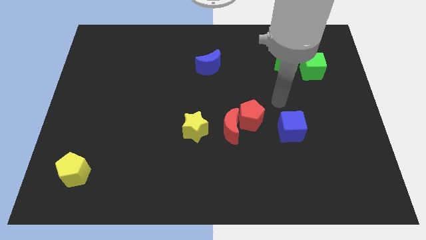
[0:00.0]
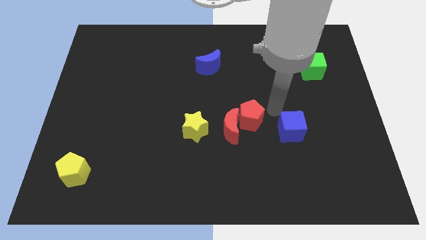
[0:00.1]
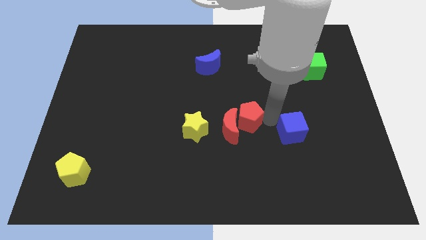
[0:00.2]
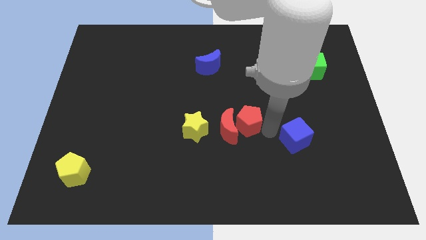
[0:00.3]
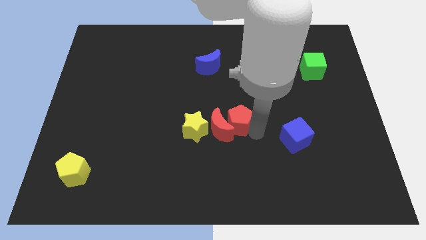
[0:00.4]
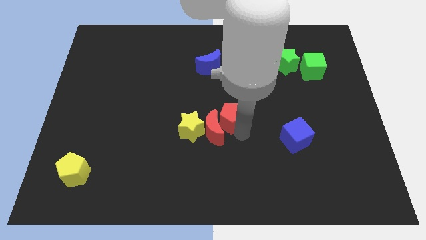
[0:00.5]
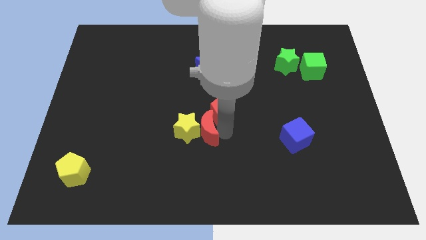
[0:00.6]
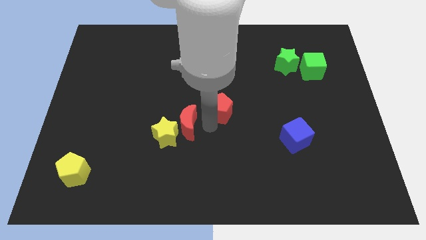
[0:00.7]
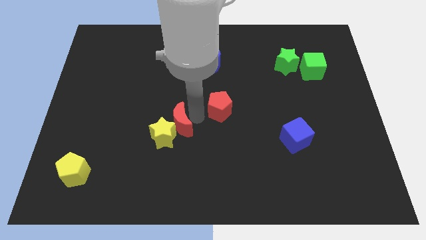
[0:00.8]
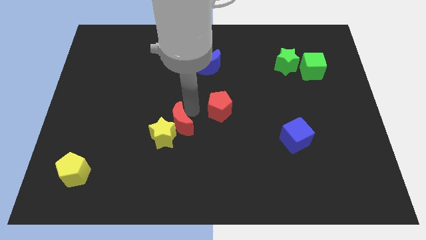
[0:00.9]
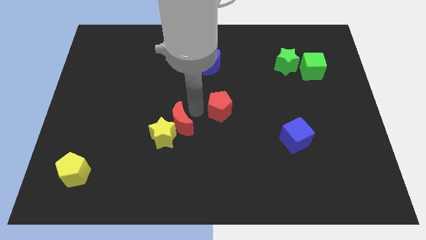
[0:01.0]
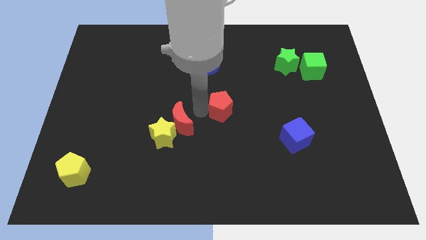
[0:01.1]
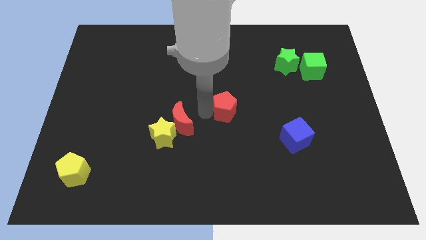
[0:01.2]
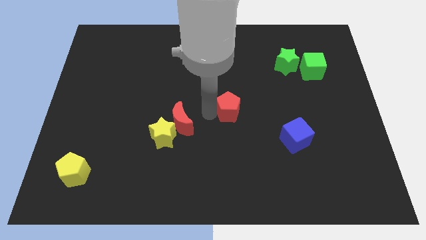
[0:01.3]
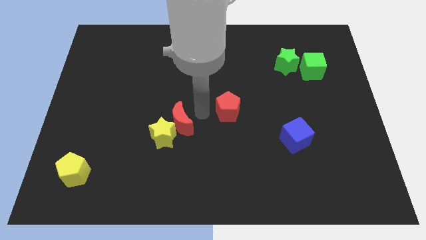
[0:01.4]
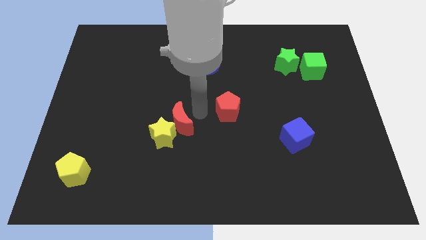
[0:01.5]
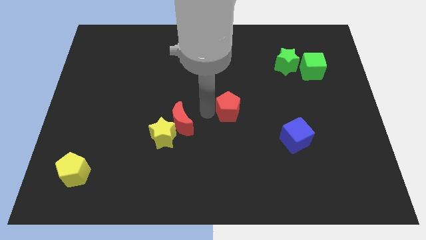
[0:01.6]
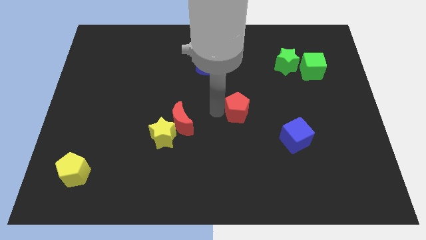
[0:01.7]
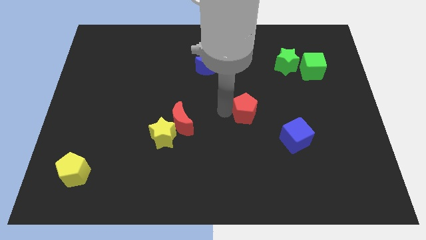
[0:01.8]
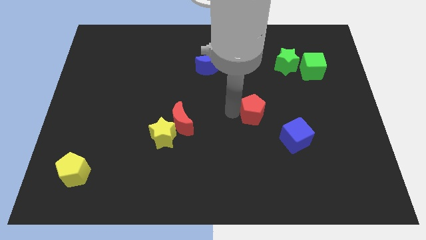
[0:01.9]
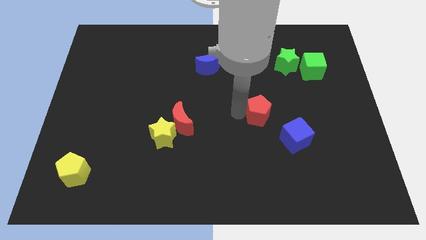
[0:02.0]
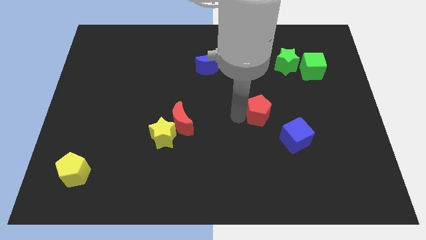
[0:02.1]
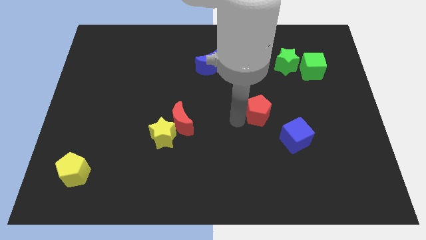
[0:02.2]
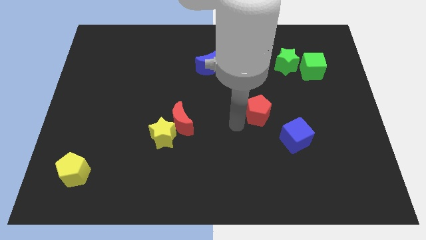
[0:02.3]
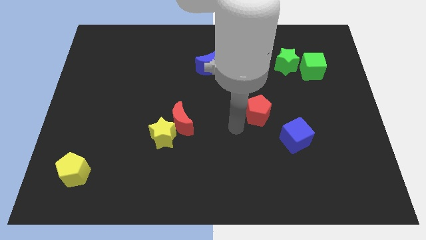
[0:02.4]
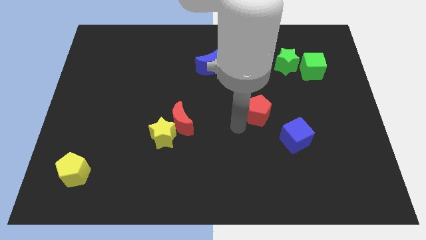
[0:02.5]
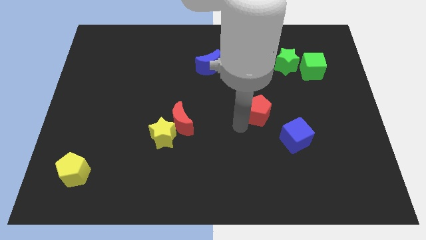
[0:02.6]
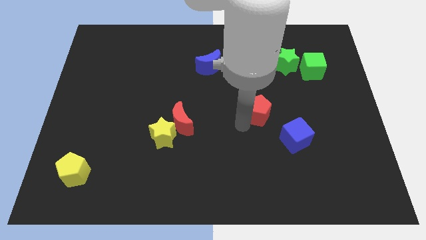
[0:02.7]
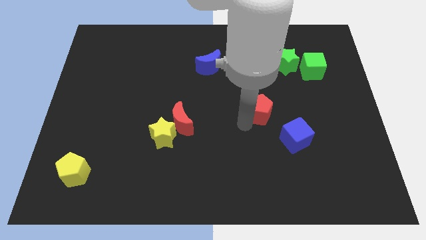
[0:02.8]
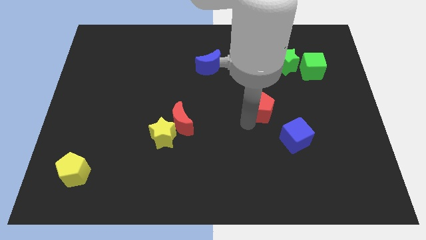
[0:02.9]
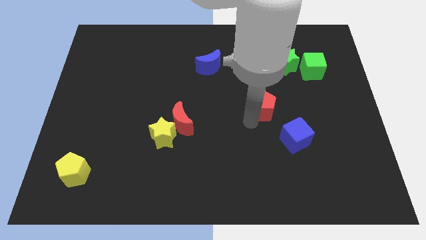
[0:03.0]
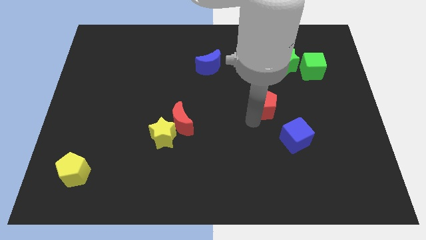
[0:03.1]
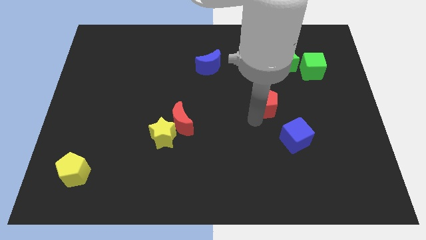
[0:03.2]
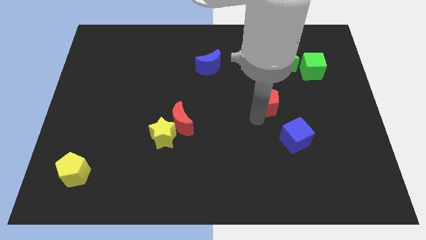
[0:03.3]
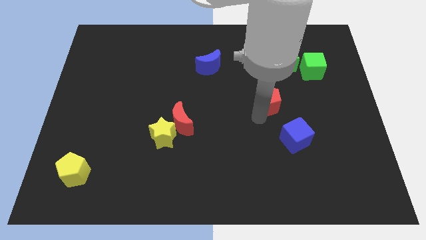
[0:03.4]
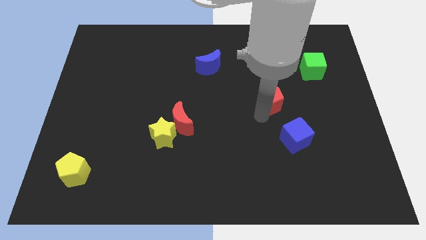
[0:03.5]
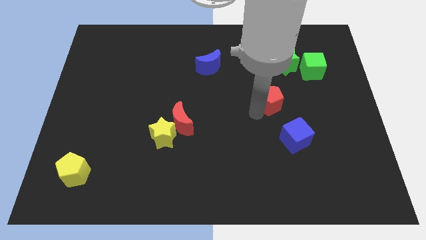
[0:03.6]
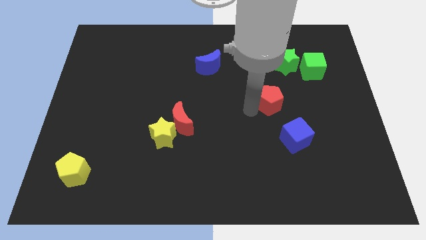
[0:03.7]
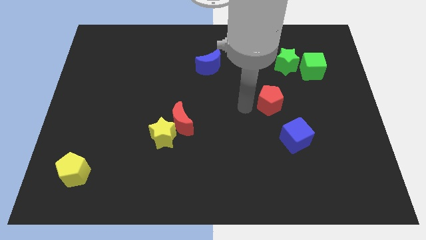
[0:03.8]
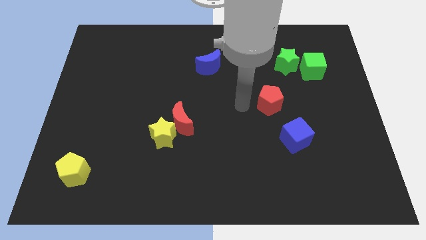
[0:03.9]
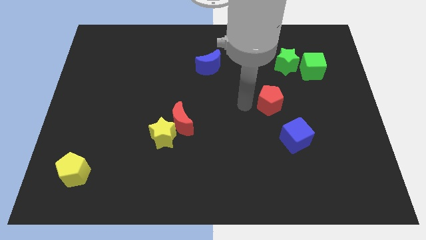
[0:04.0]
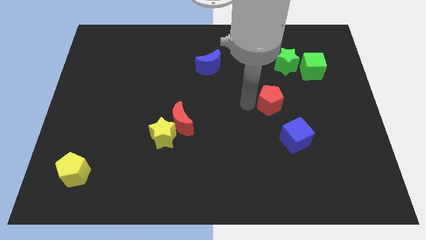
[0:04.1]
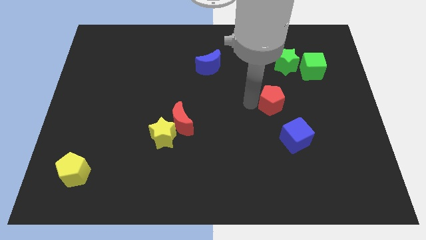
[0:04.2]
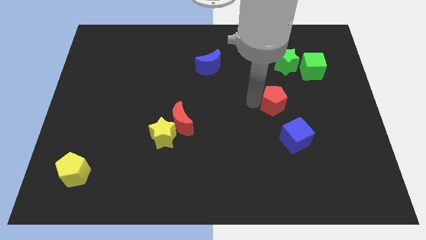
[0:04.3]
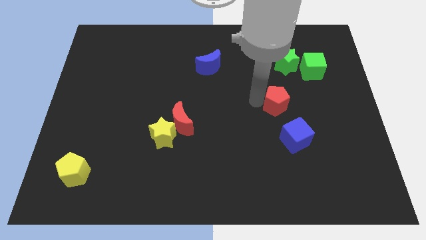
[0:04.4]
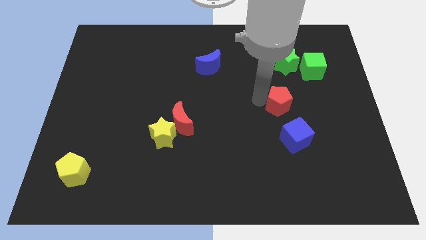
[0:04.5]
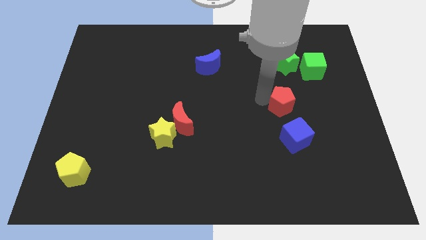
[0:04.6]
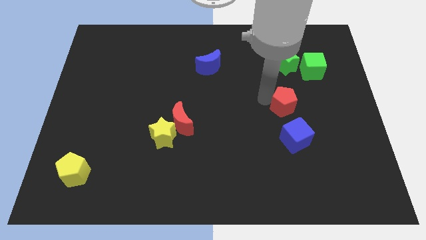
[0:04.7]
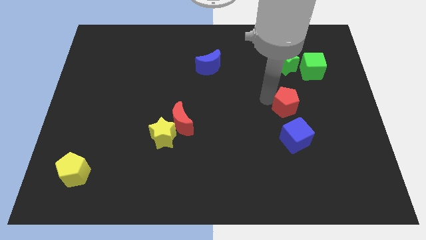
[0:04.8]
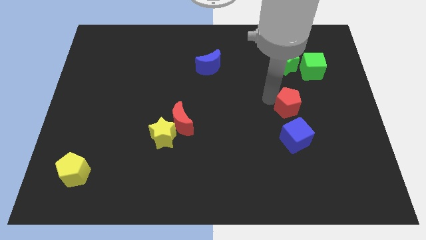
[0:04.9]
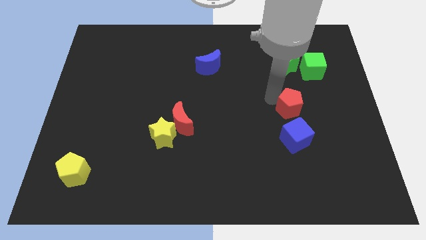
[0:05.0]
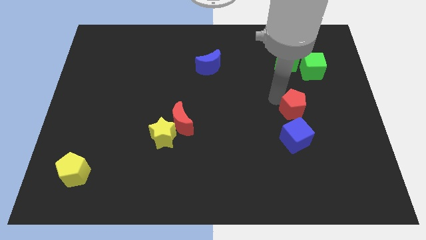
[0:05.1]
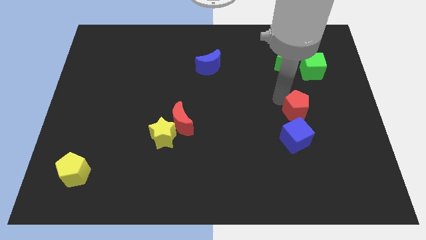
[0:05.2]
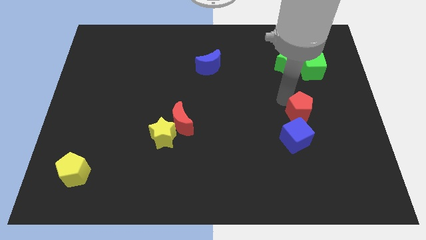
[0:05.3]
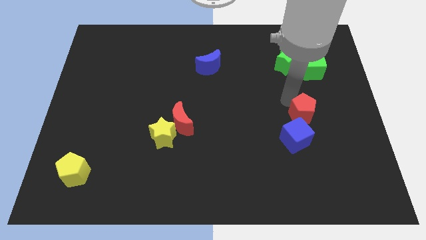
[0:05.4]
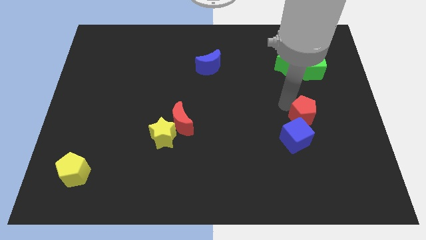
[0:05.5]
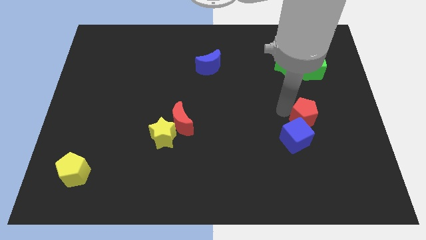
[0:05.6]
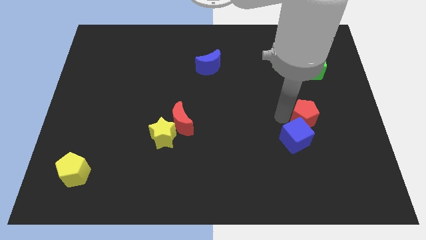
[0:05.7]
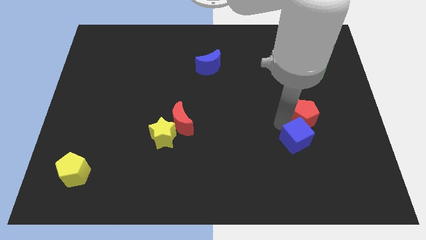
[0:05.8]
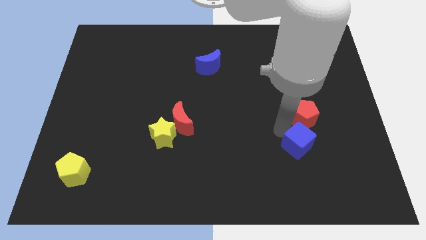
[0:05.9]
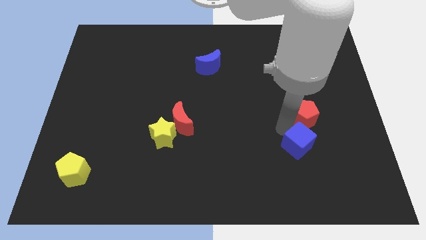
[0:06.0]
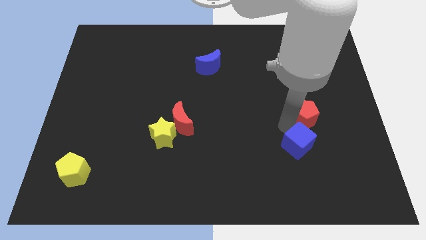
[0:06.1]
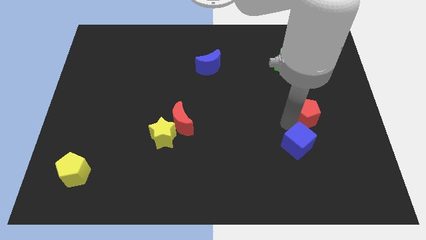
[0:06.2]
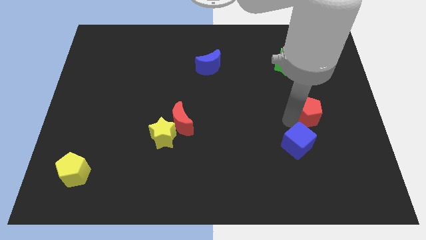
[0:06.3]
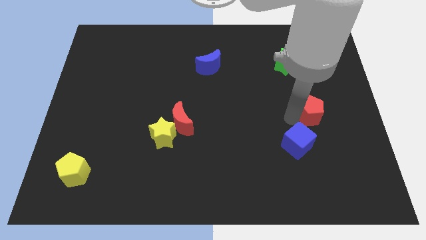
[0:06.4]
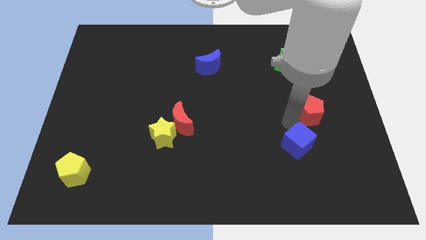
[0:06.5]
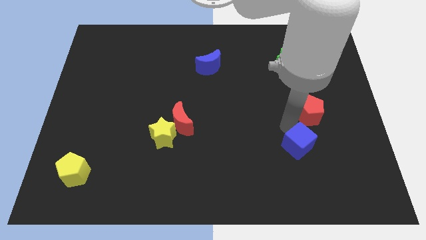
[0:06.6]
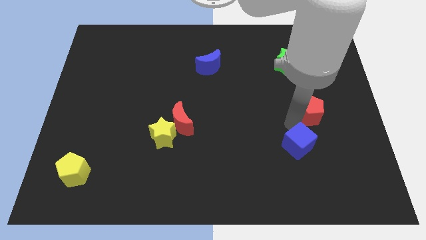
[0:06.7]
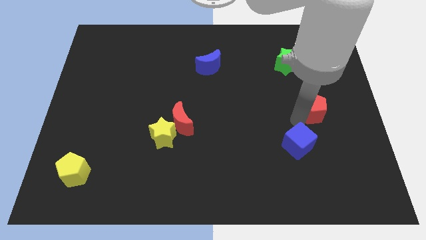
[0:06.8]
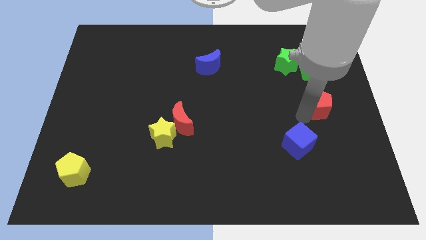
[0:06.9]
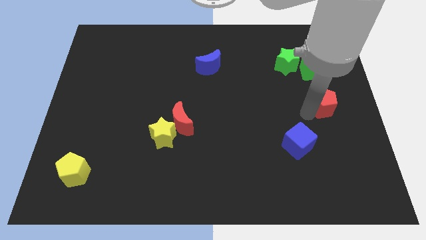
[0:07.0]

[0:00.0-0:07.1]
put the red pentagon to the right side of the board
